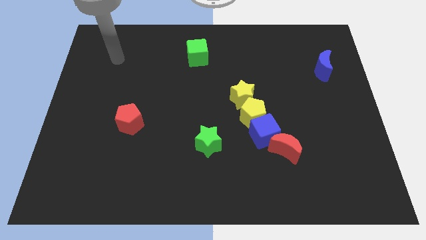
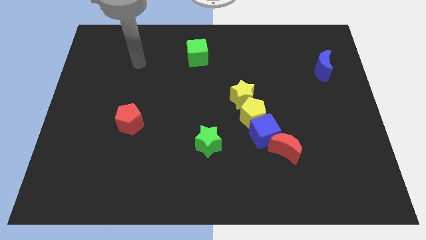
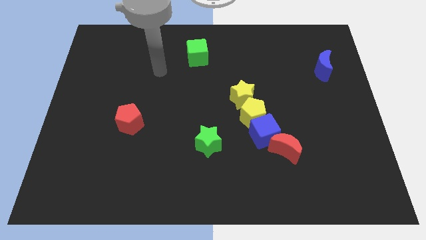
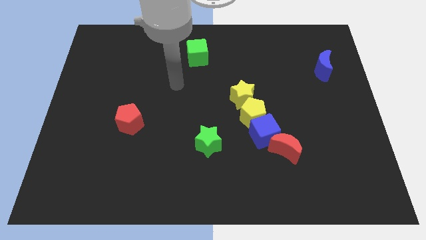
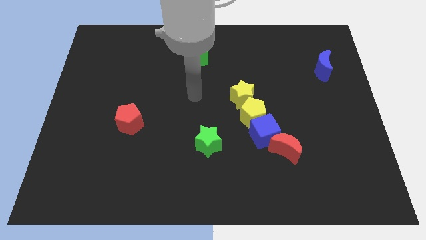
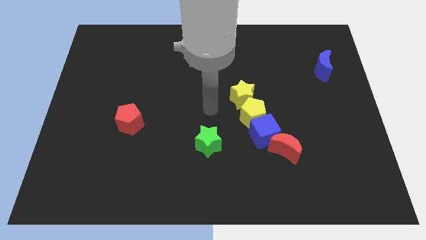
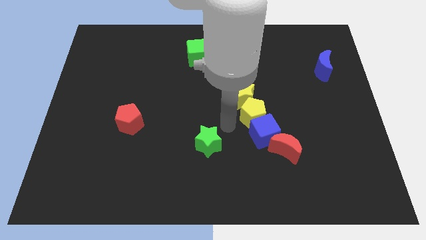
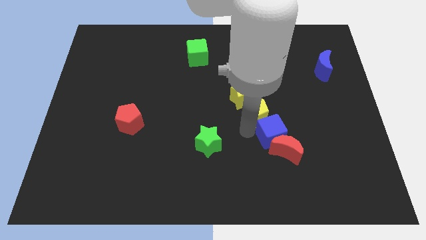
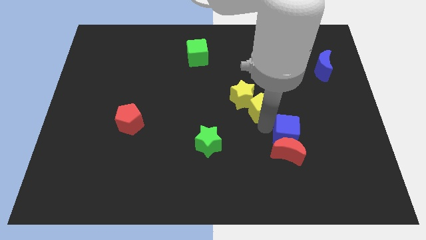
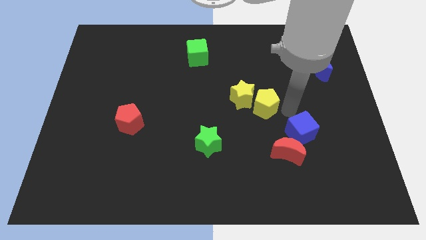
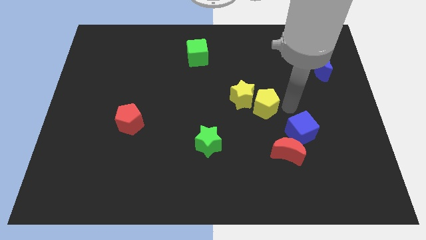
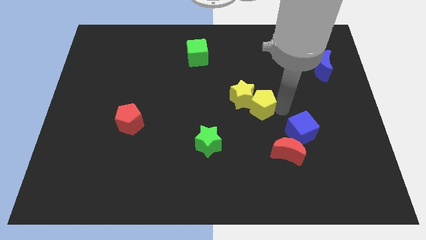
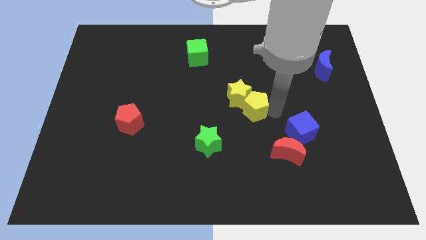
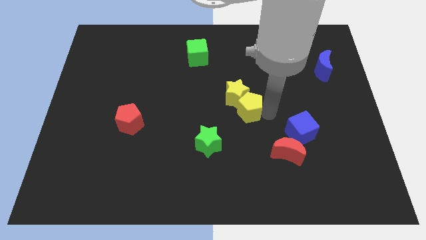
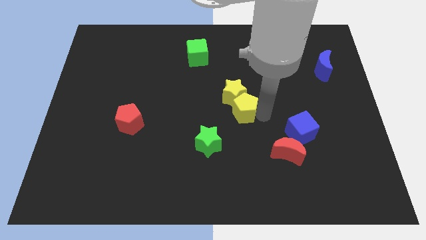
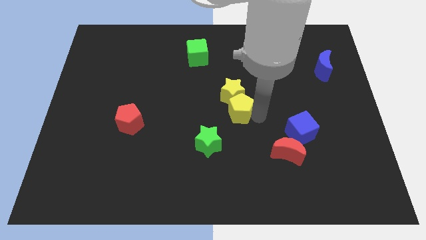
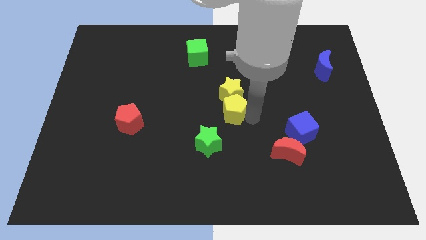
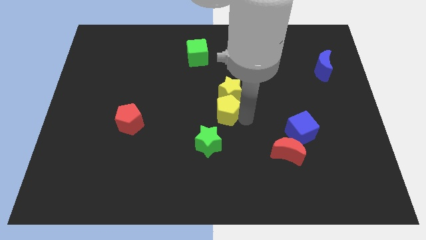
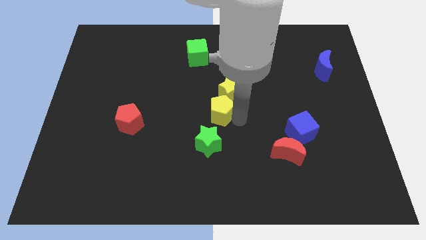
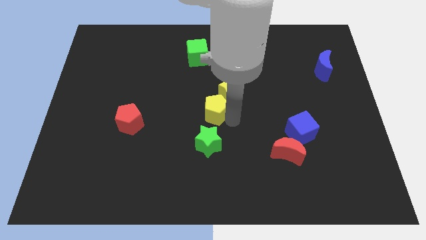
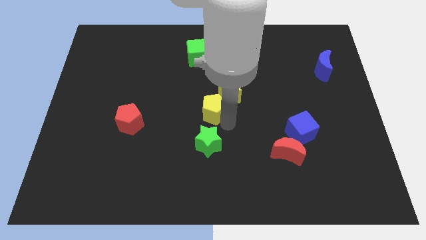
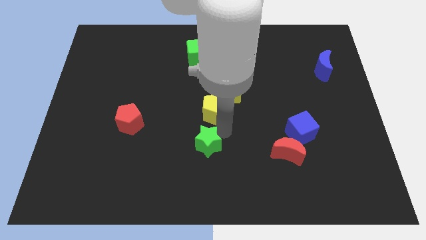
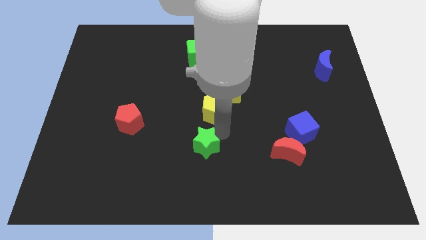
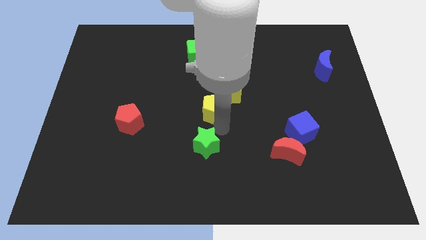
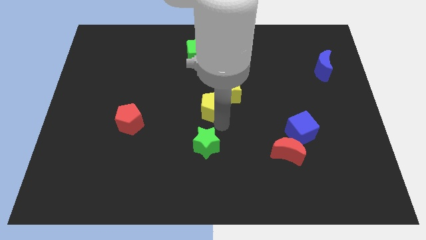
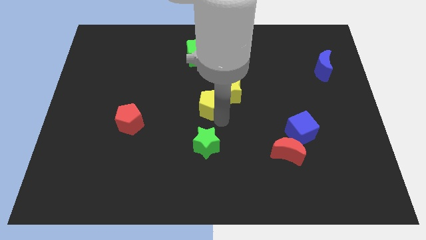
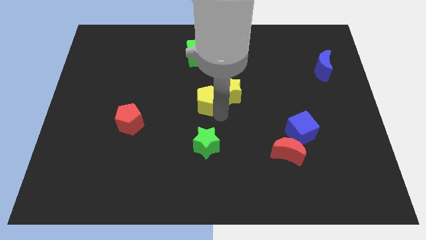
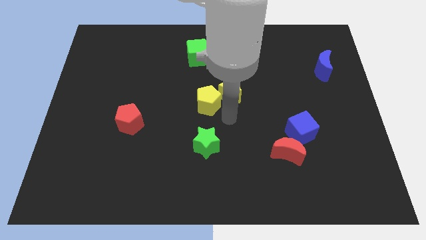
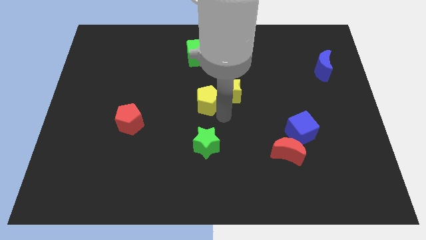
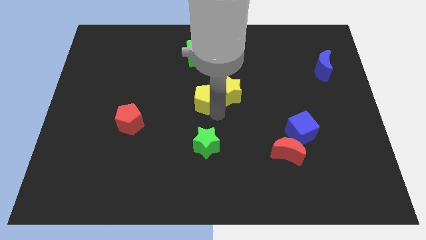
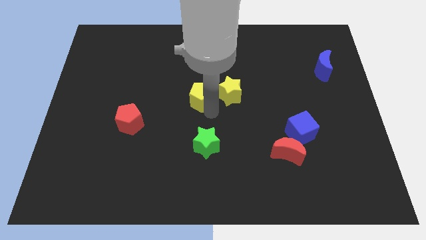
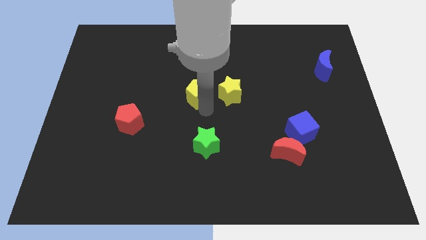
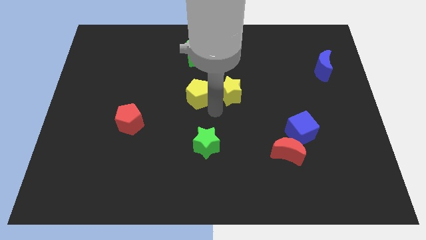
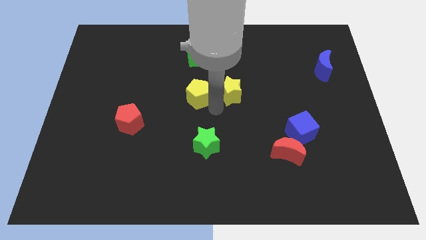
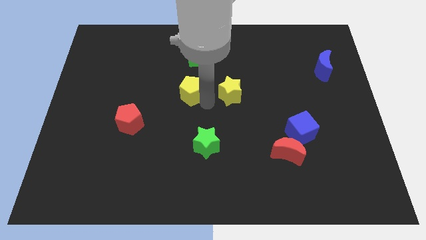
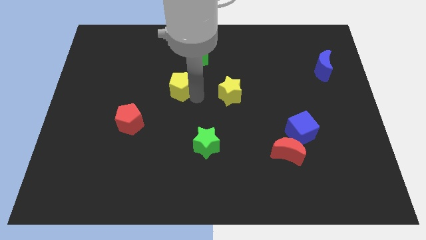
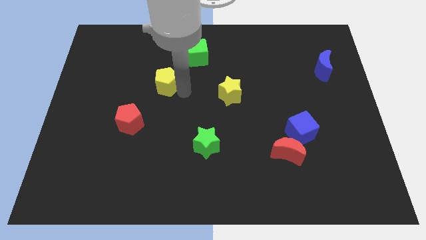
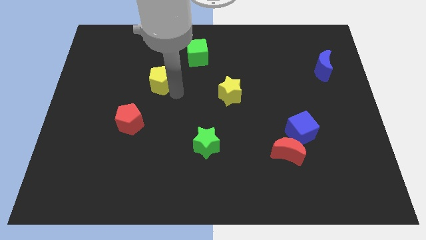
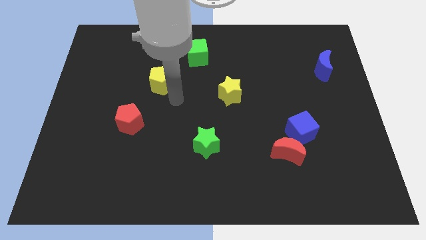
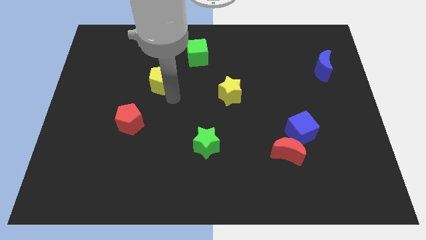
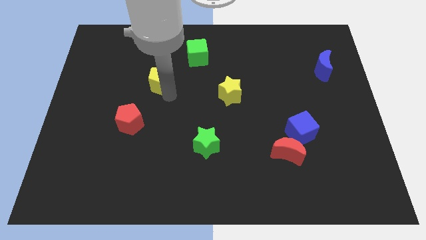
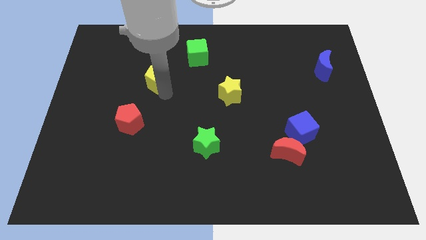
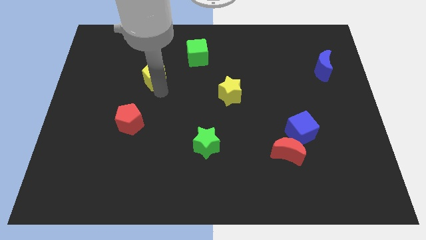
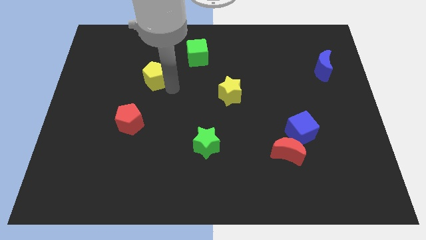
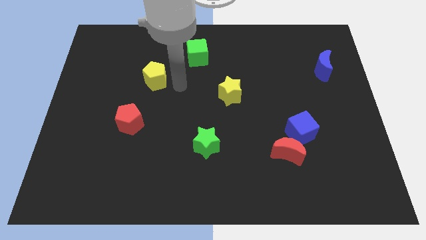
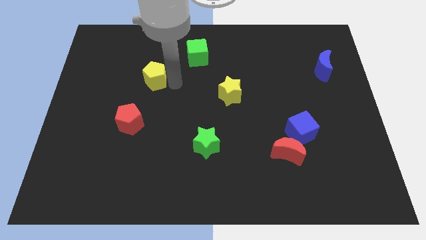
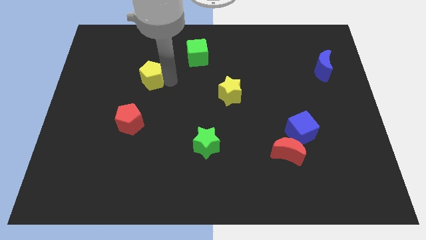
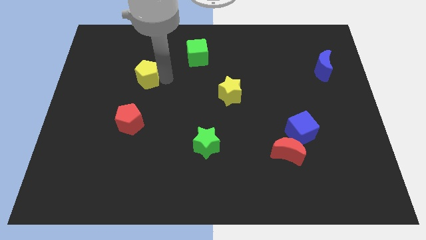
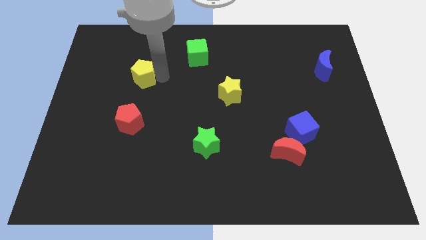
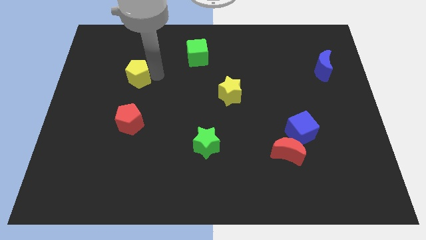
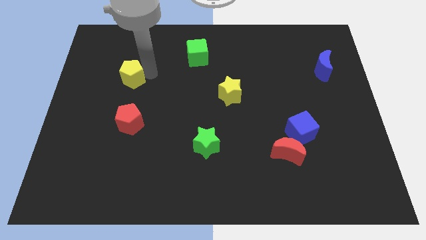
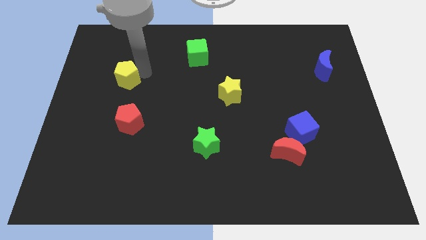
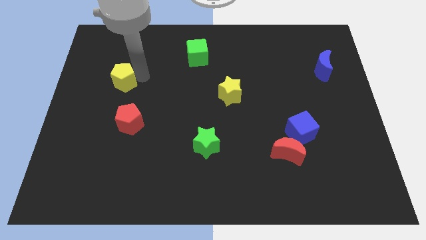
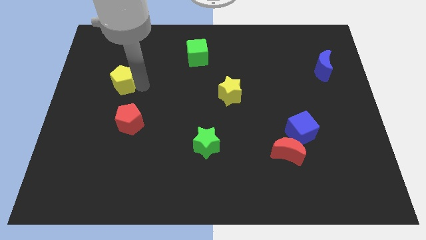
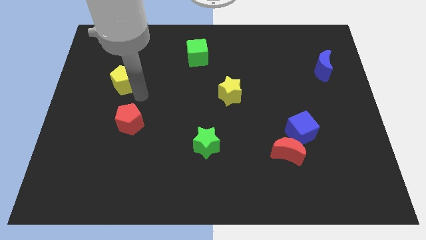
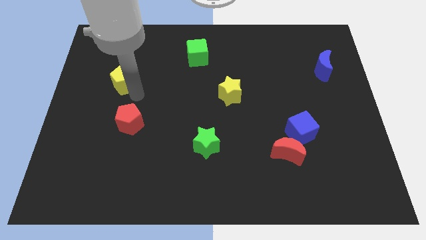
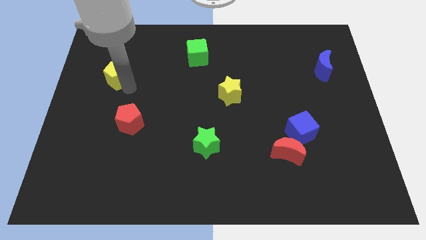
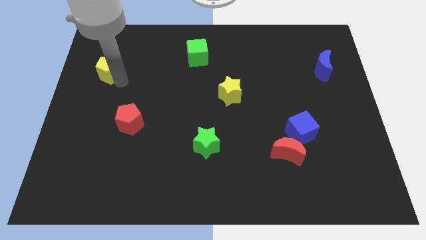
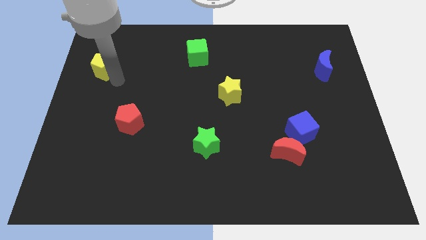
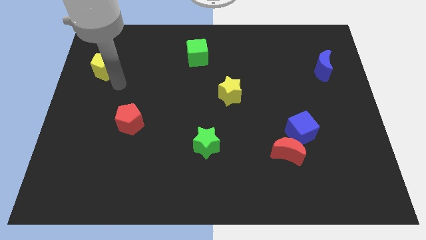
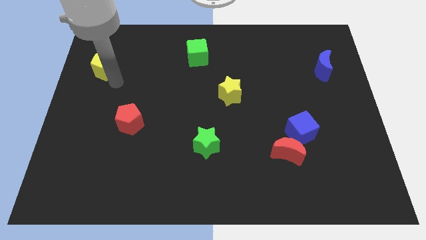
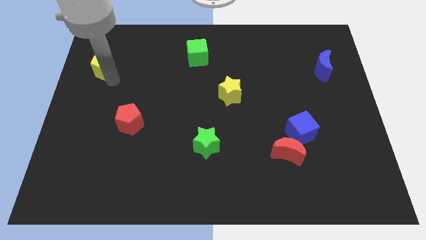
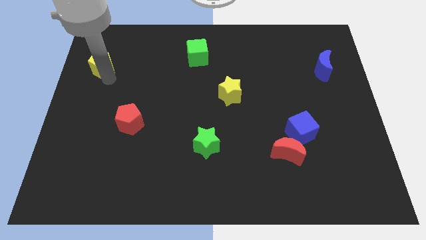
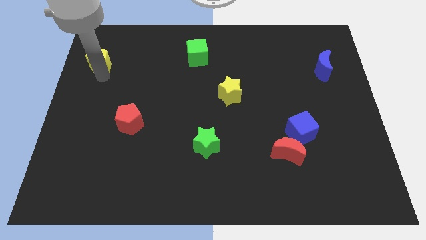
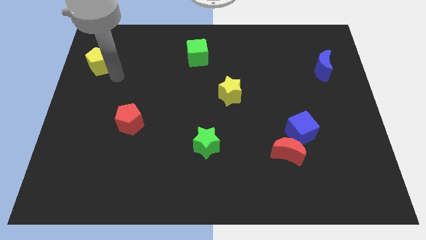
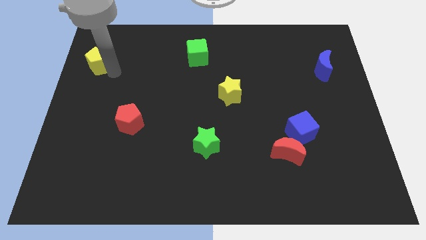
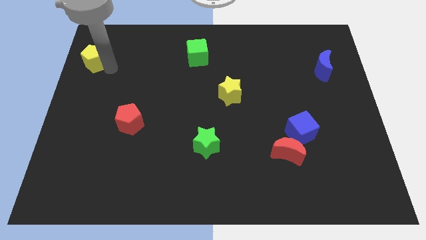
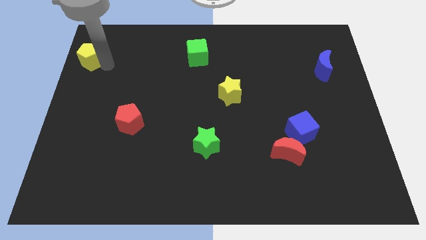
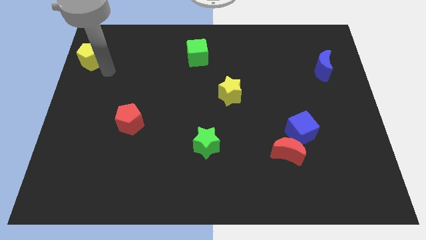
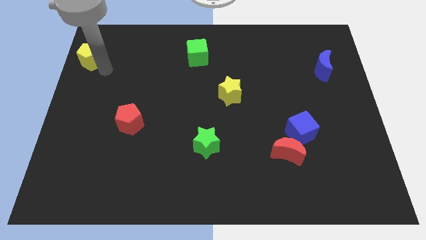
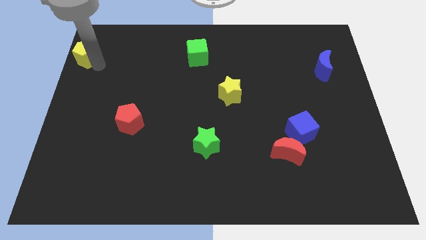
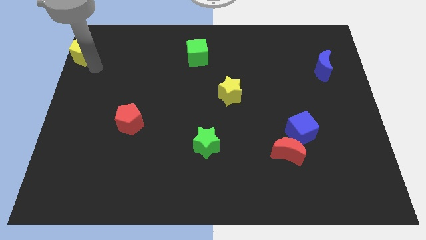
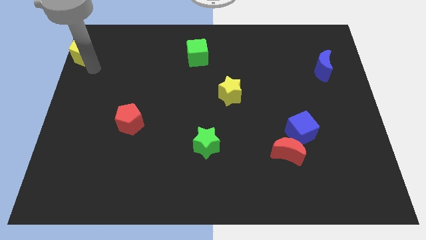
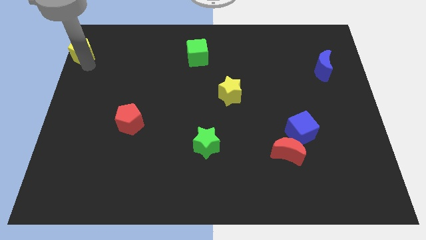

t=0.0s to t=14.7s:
put the yellow pentagon to the top left of the board
